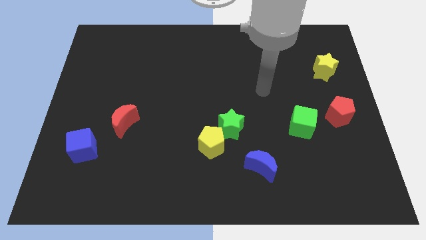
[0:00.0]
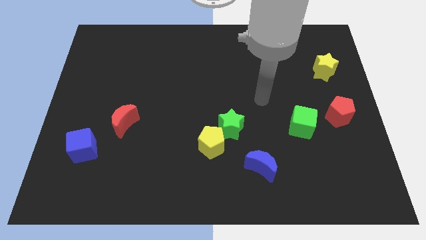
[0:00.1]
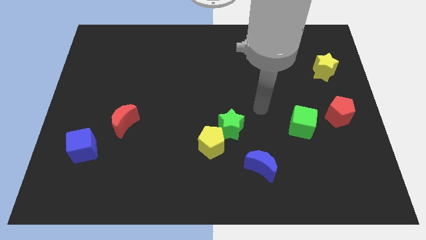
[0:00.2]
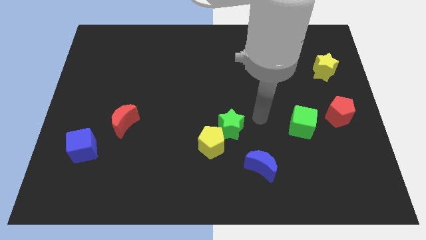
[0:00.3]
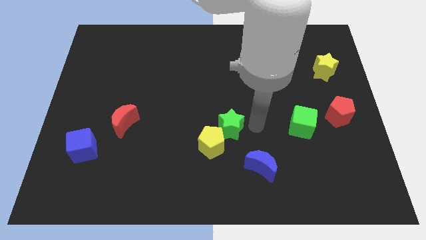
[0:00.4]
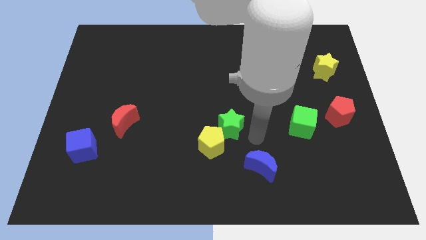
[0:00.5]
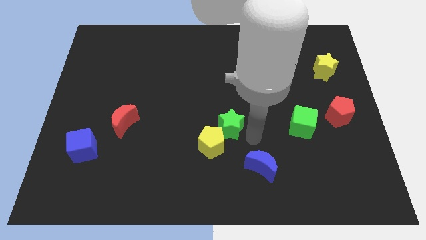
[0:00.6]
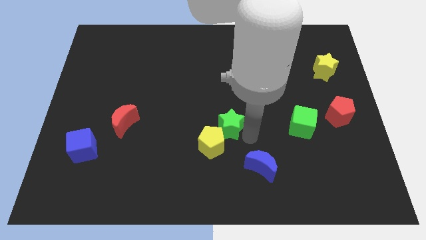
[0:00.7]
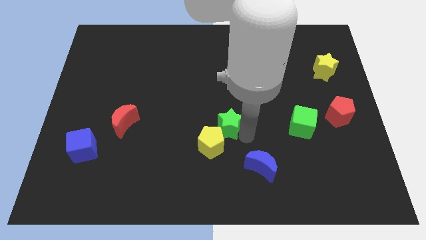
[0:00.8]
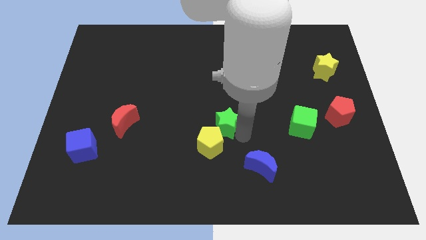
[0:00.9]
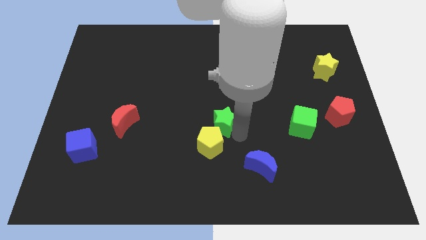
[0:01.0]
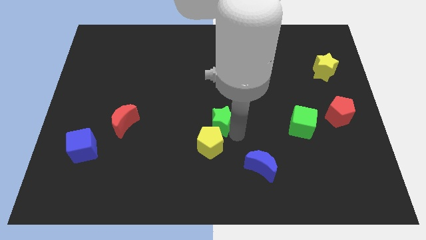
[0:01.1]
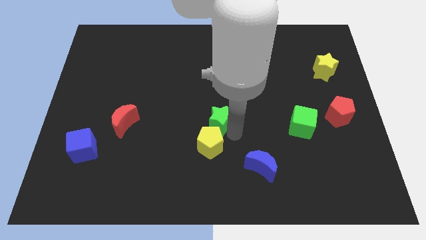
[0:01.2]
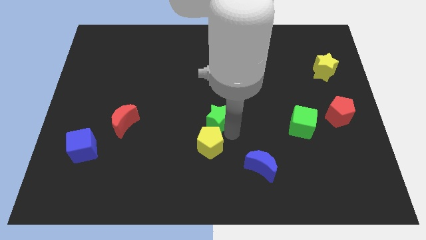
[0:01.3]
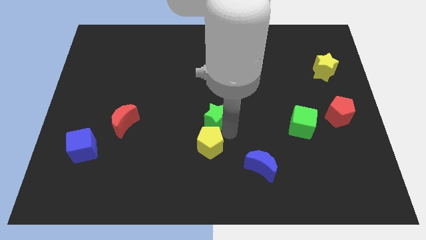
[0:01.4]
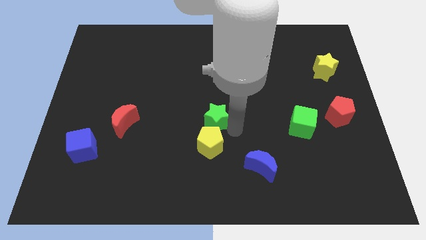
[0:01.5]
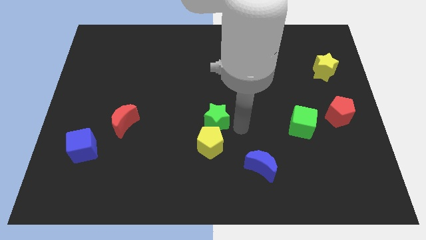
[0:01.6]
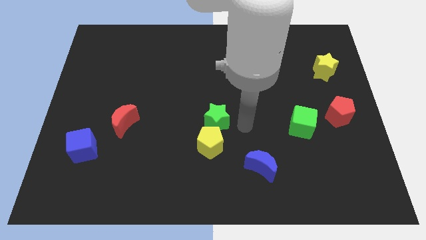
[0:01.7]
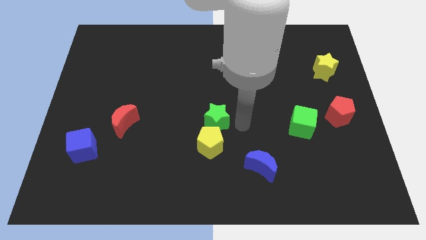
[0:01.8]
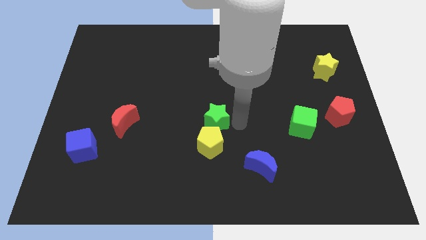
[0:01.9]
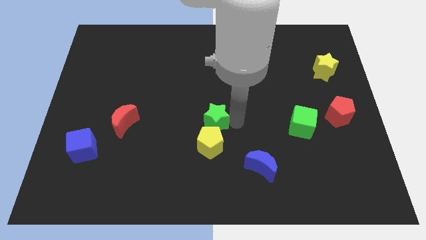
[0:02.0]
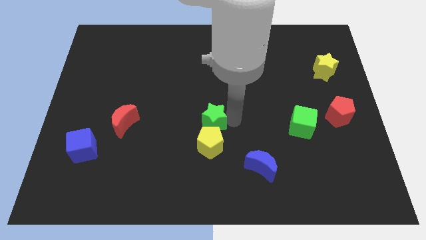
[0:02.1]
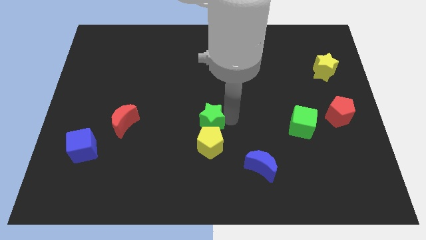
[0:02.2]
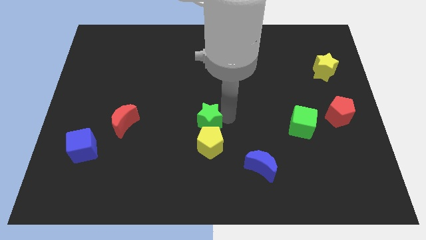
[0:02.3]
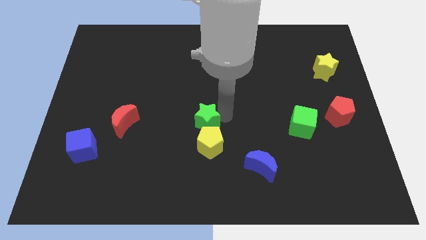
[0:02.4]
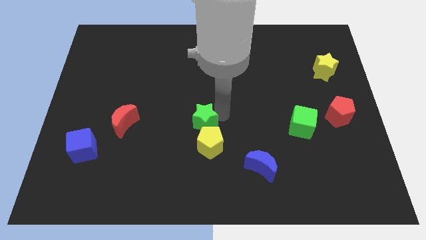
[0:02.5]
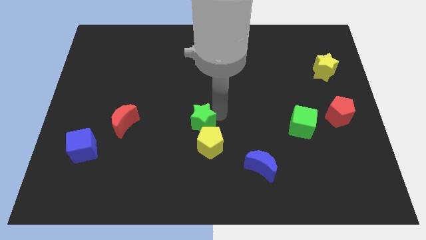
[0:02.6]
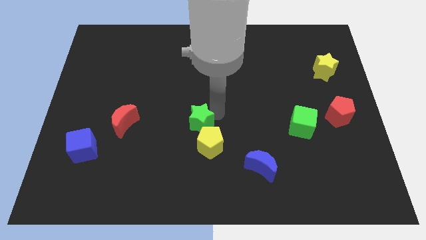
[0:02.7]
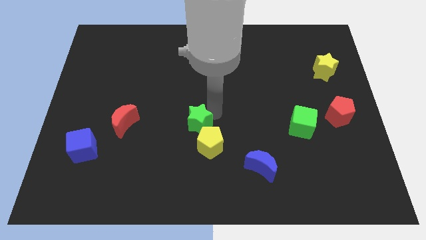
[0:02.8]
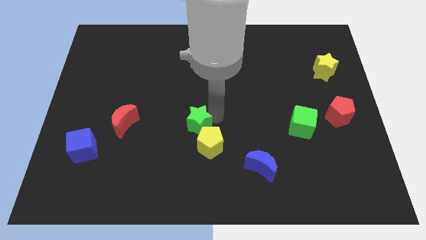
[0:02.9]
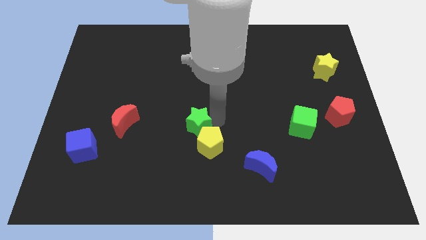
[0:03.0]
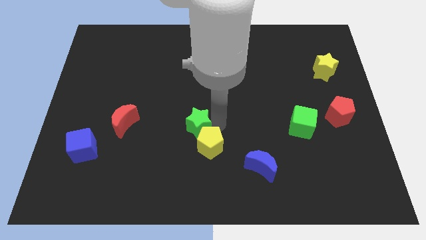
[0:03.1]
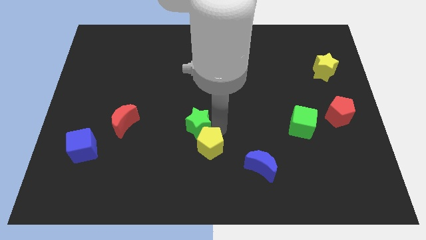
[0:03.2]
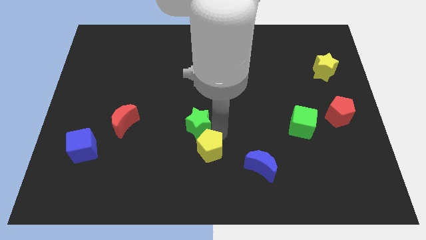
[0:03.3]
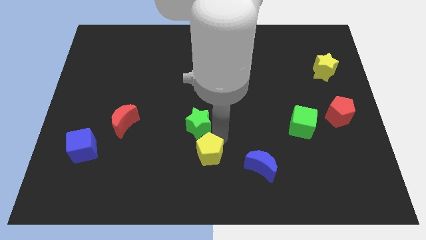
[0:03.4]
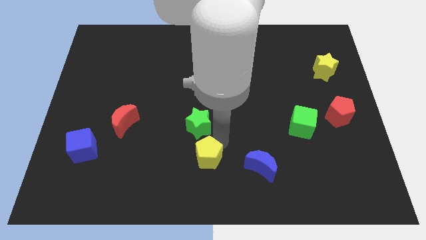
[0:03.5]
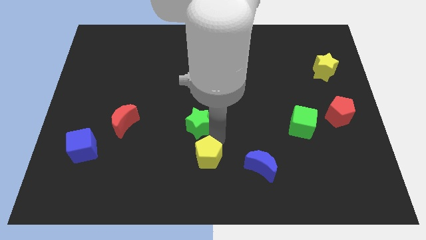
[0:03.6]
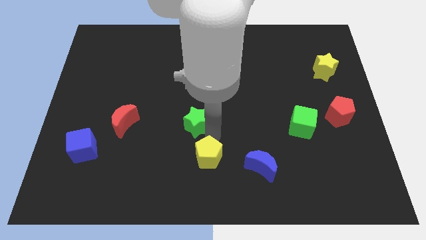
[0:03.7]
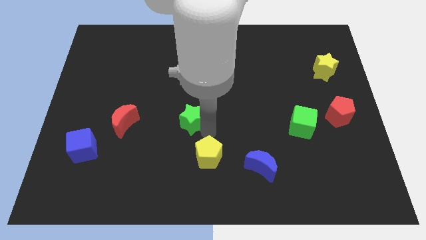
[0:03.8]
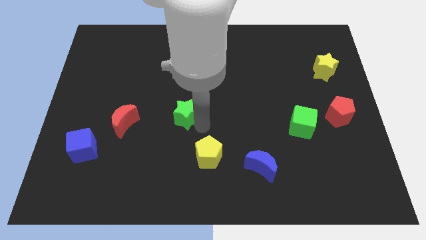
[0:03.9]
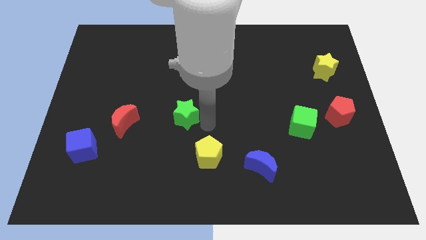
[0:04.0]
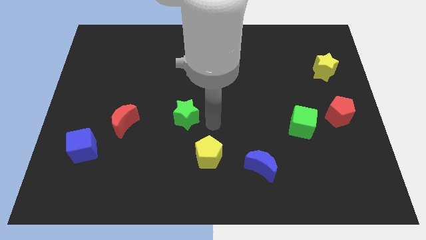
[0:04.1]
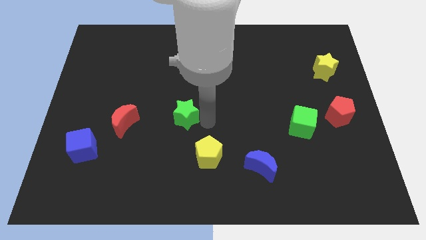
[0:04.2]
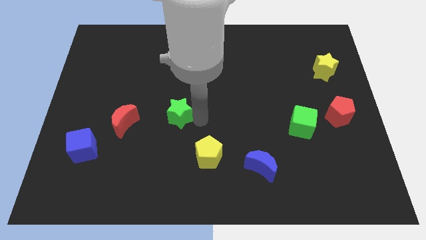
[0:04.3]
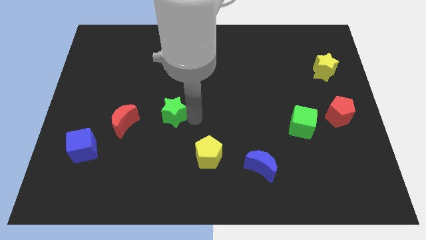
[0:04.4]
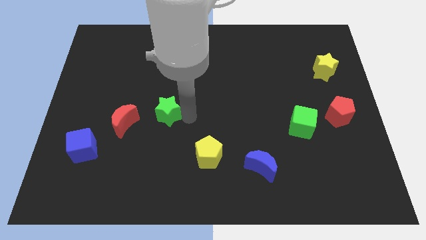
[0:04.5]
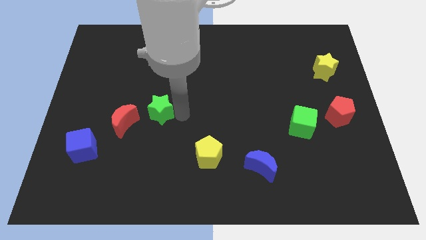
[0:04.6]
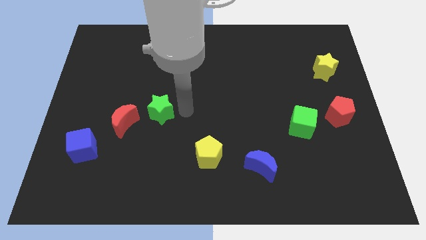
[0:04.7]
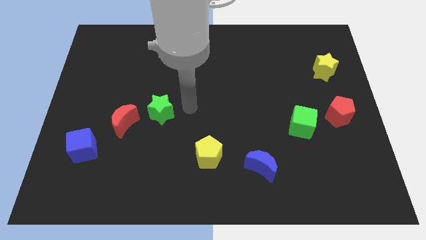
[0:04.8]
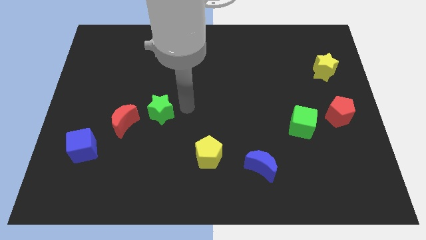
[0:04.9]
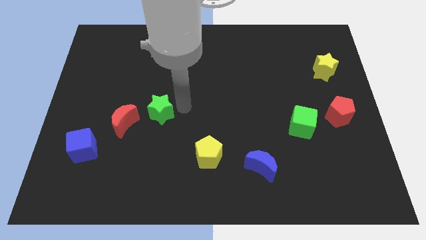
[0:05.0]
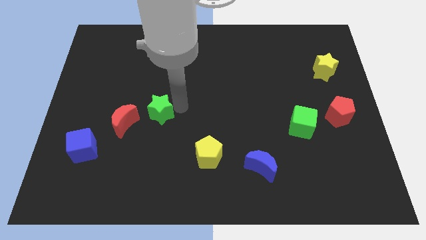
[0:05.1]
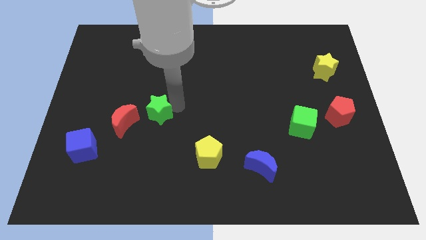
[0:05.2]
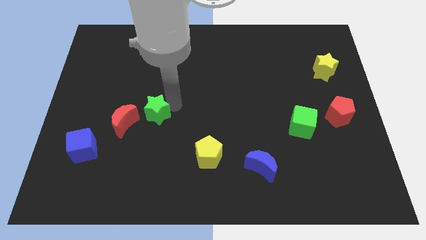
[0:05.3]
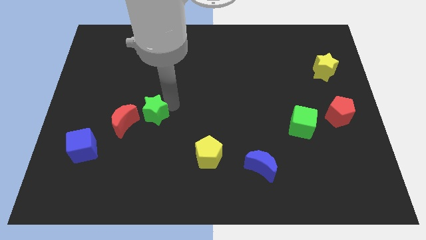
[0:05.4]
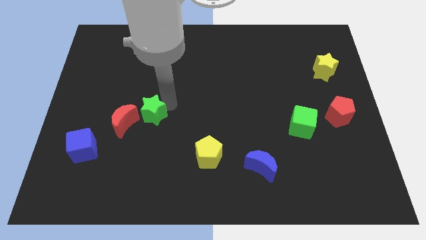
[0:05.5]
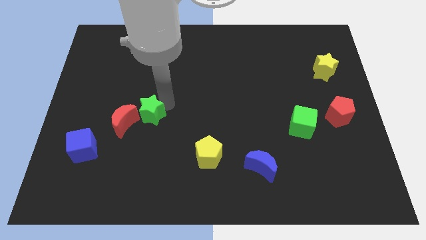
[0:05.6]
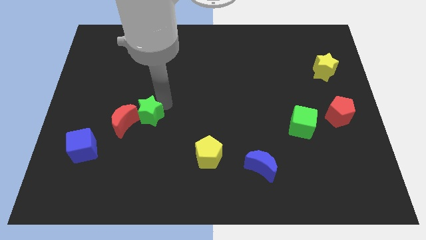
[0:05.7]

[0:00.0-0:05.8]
push the green star towards the red moon

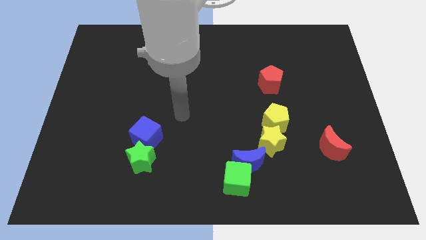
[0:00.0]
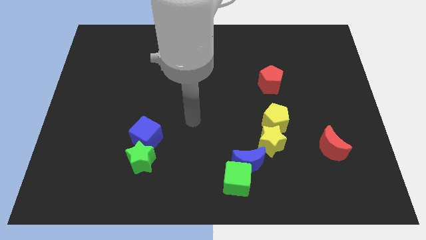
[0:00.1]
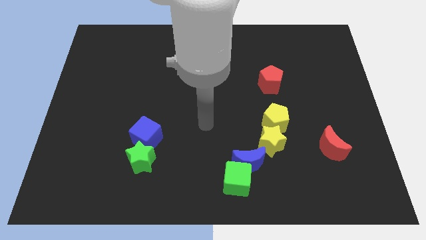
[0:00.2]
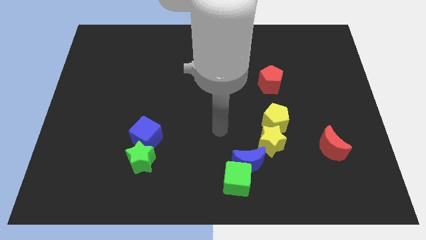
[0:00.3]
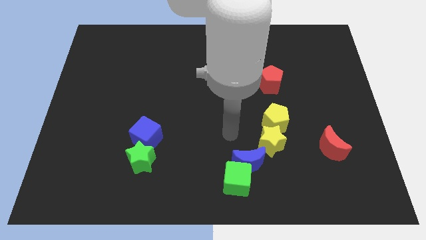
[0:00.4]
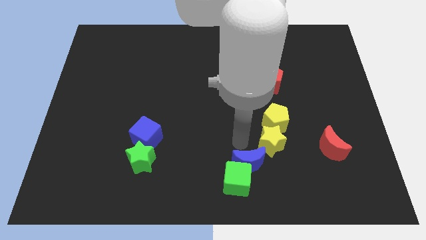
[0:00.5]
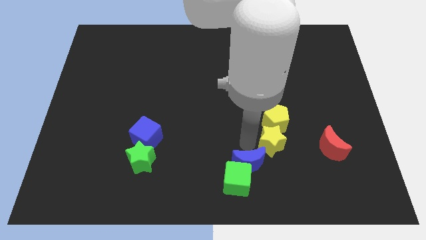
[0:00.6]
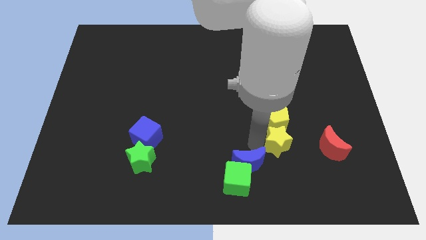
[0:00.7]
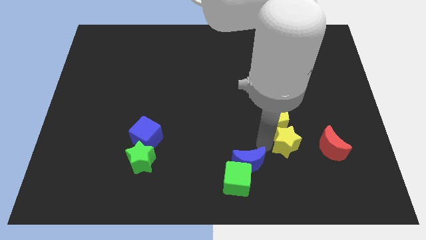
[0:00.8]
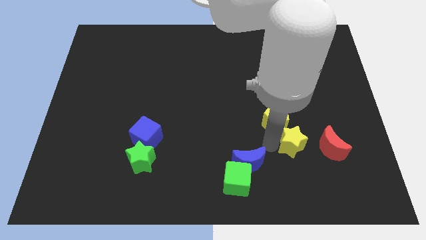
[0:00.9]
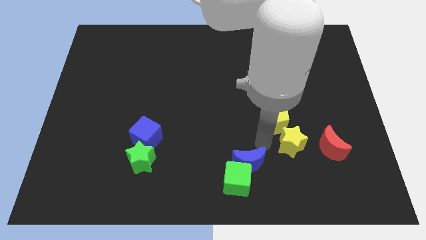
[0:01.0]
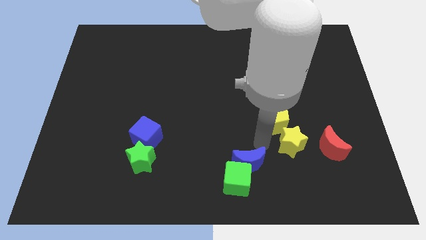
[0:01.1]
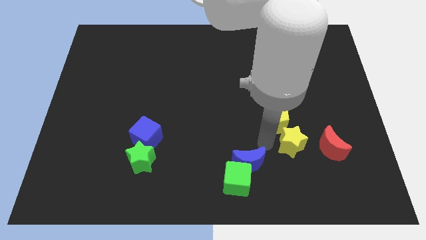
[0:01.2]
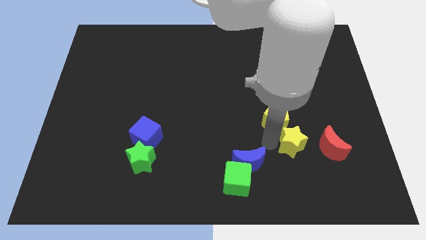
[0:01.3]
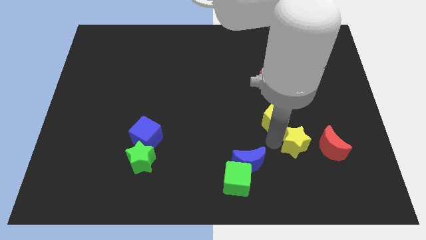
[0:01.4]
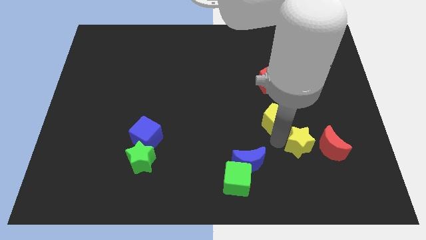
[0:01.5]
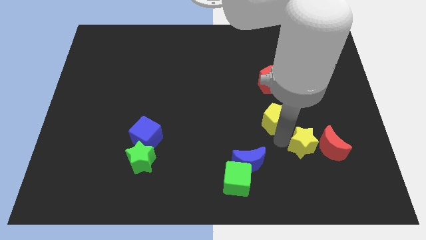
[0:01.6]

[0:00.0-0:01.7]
move the yellow star close to the red moon
